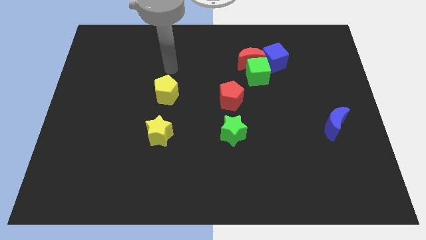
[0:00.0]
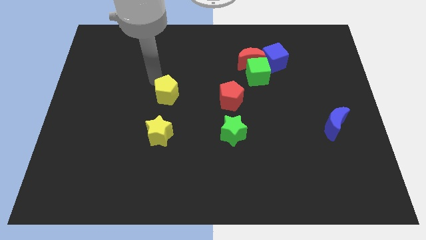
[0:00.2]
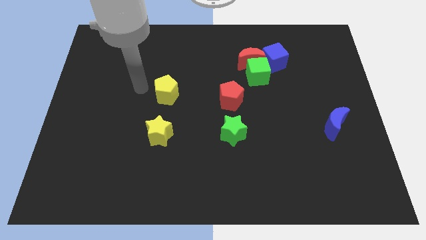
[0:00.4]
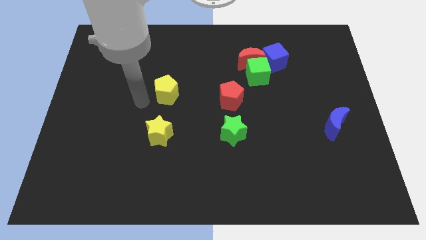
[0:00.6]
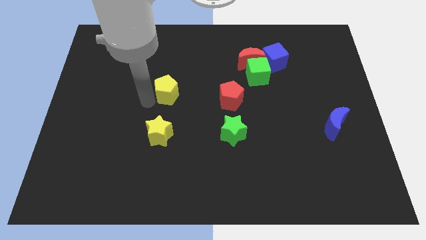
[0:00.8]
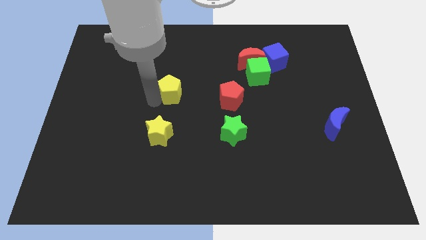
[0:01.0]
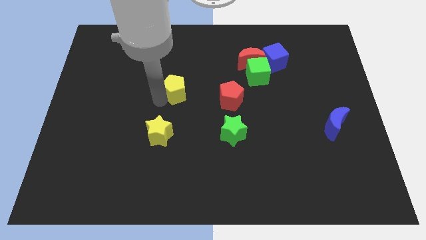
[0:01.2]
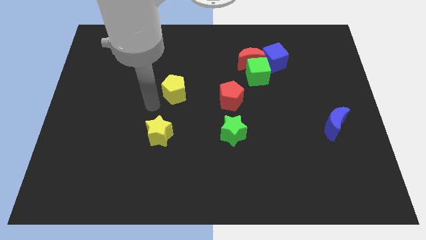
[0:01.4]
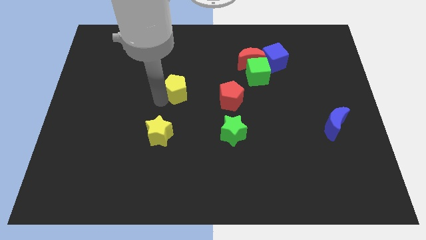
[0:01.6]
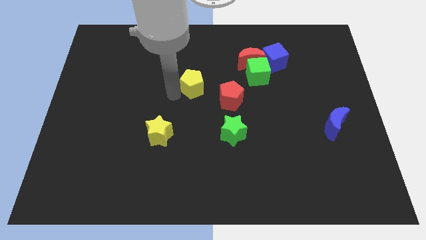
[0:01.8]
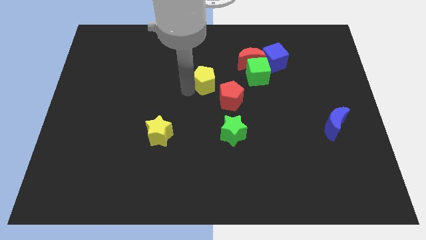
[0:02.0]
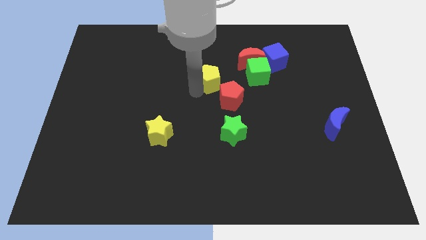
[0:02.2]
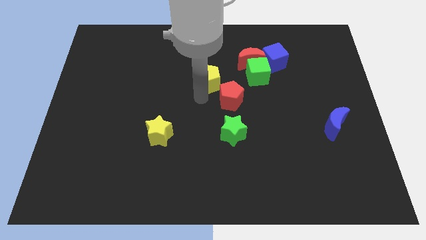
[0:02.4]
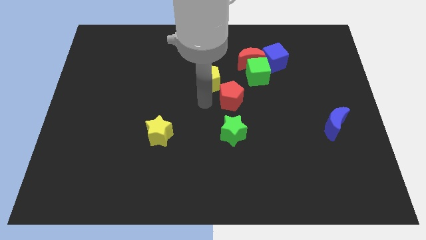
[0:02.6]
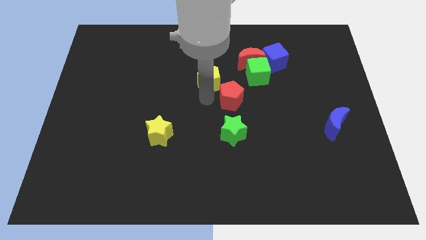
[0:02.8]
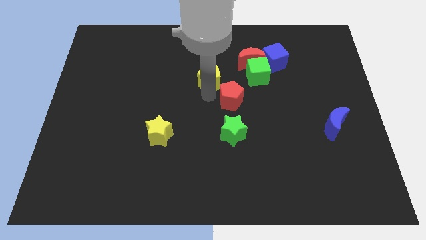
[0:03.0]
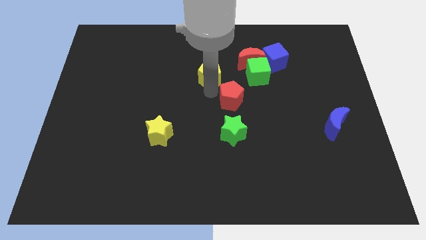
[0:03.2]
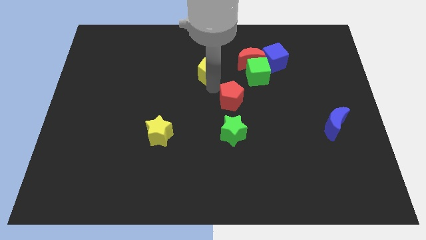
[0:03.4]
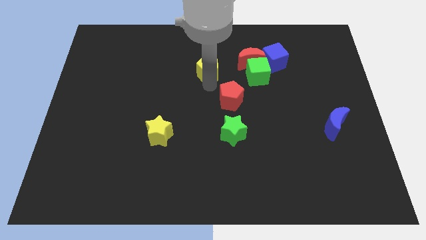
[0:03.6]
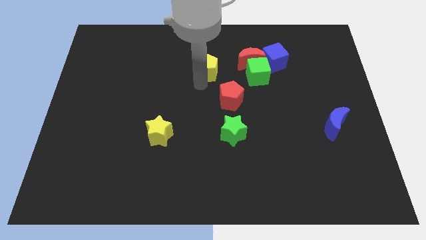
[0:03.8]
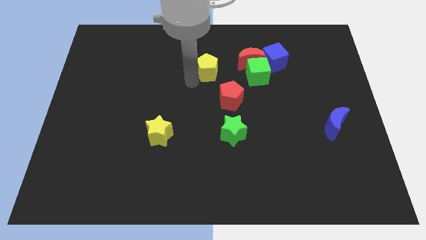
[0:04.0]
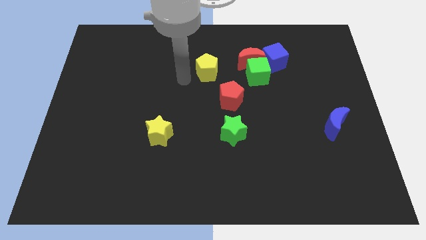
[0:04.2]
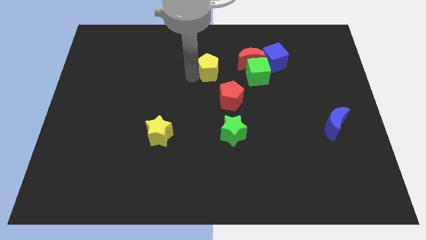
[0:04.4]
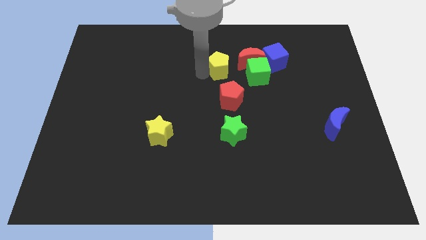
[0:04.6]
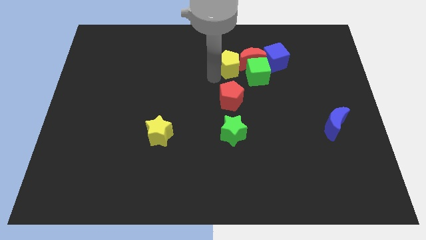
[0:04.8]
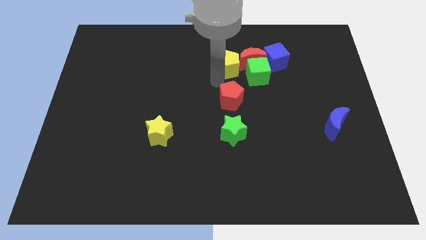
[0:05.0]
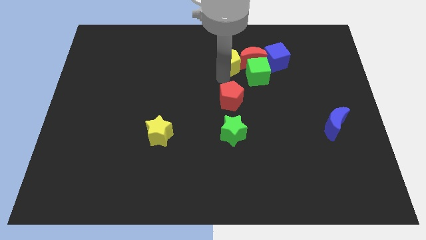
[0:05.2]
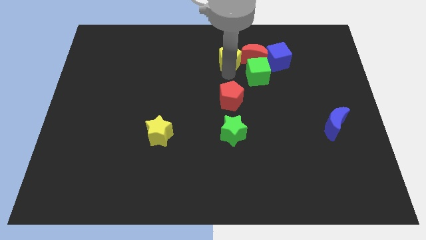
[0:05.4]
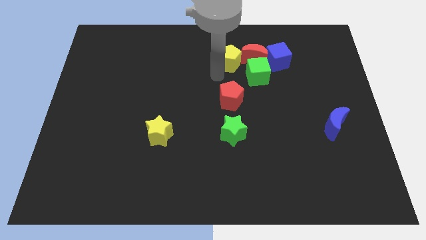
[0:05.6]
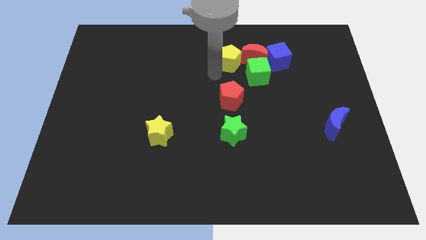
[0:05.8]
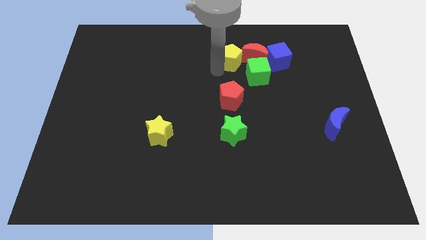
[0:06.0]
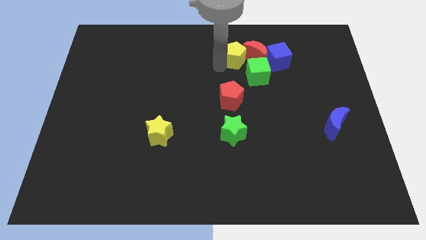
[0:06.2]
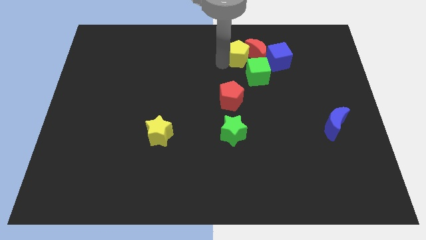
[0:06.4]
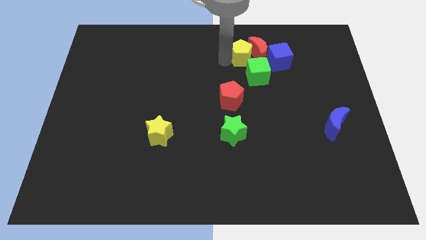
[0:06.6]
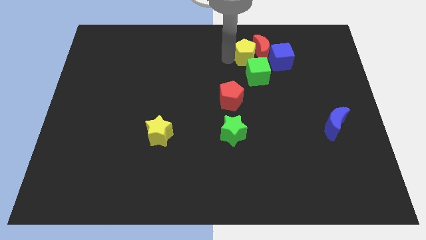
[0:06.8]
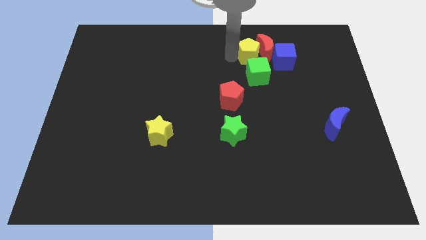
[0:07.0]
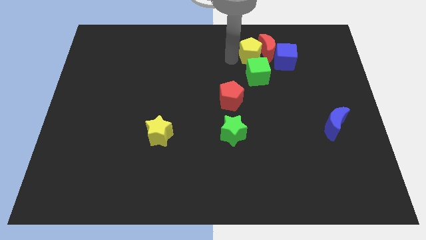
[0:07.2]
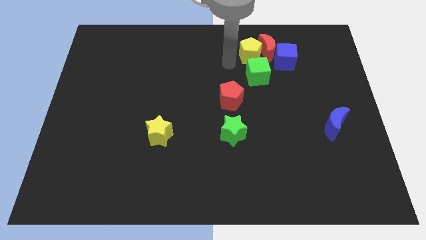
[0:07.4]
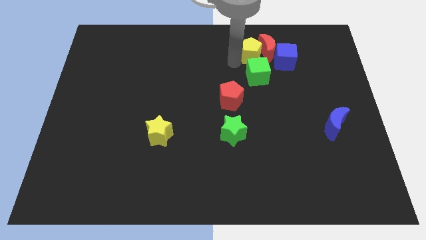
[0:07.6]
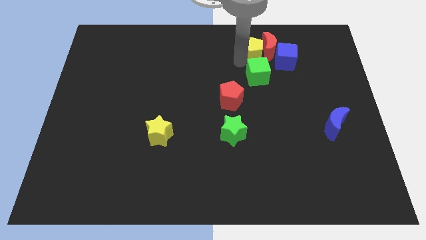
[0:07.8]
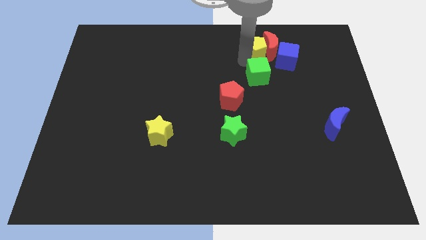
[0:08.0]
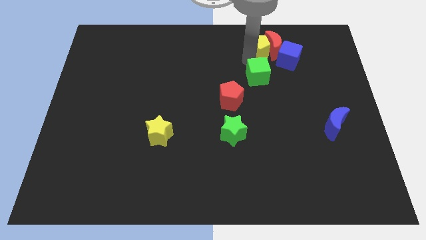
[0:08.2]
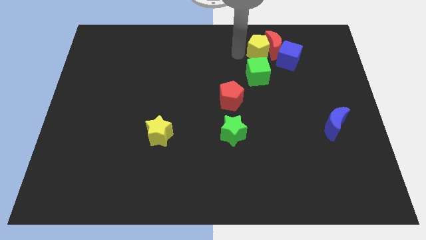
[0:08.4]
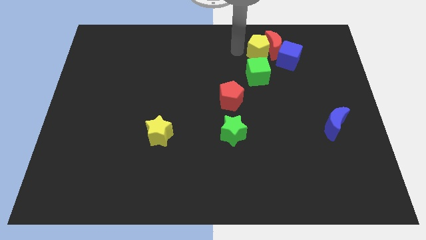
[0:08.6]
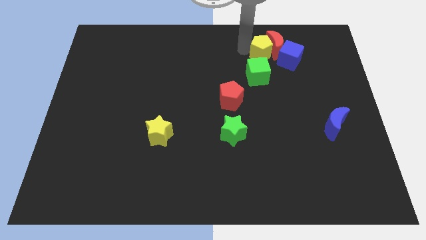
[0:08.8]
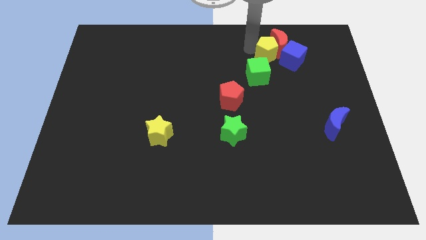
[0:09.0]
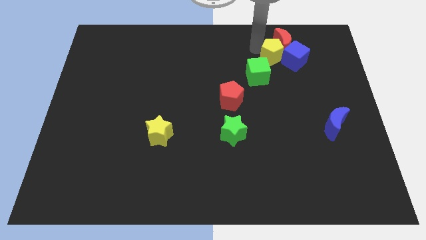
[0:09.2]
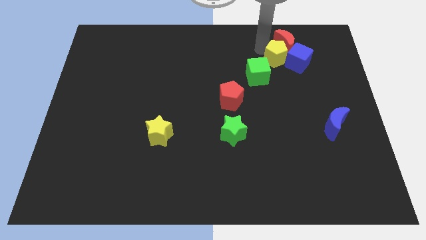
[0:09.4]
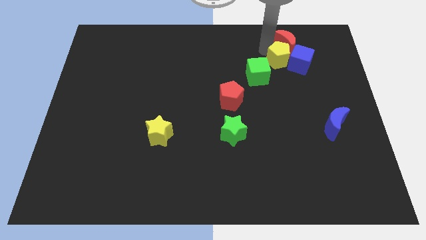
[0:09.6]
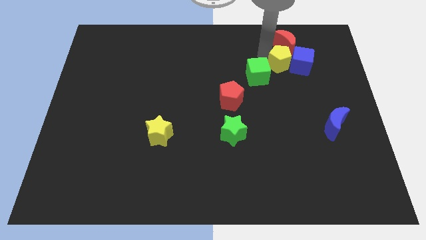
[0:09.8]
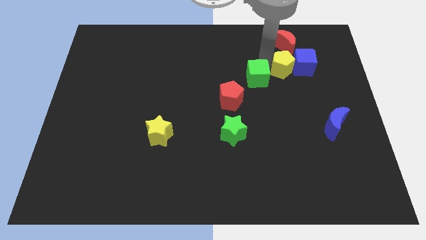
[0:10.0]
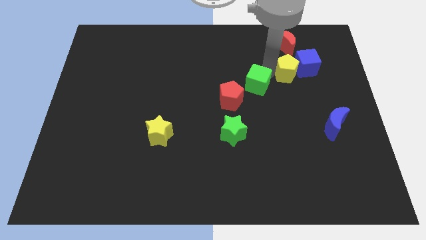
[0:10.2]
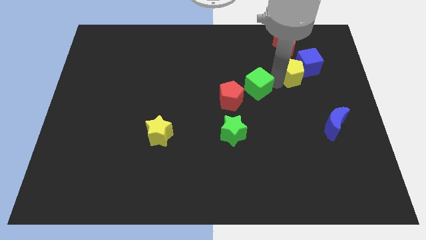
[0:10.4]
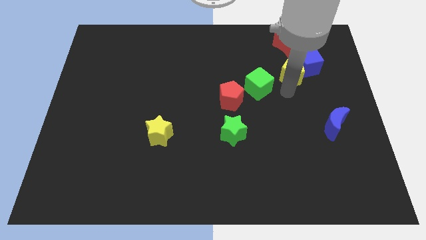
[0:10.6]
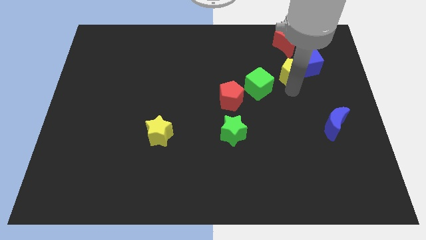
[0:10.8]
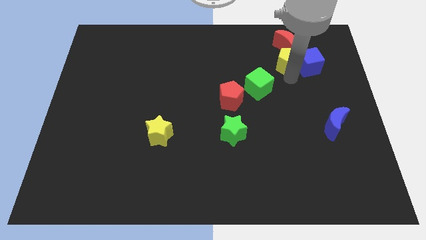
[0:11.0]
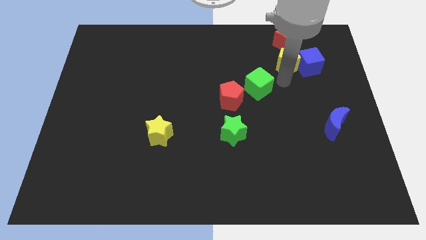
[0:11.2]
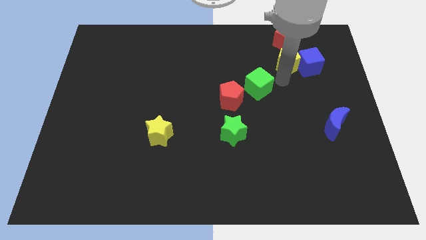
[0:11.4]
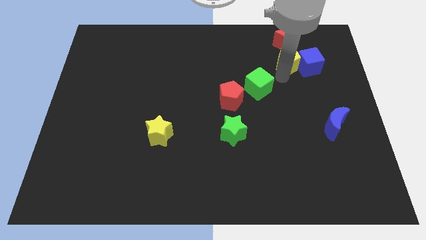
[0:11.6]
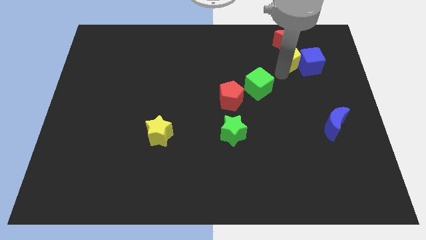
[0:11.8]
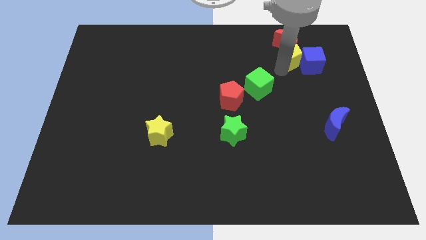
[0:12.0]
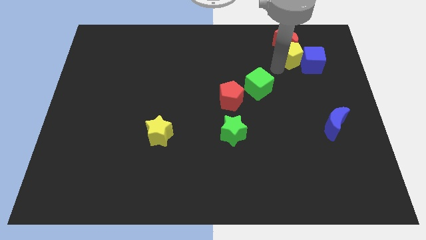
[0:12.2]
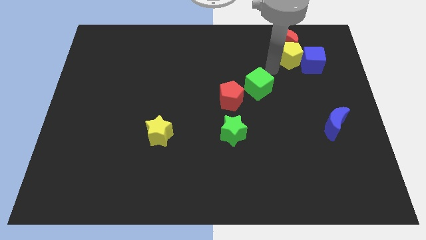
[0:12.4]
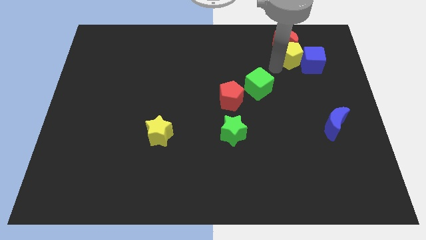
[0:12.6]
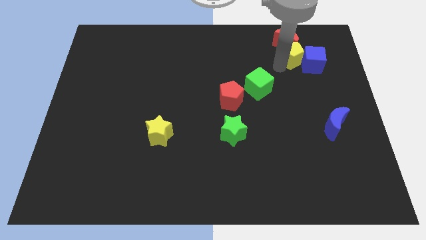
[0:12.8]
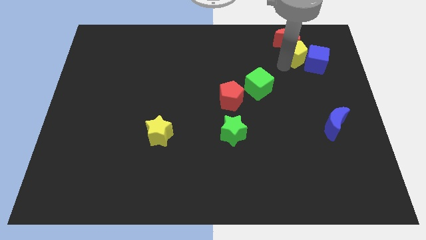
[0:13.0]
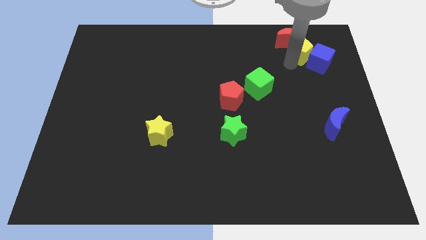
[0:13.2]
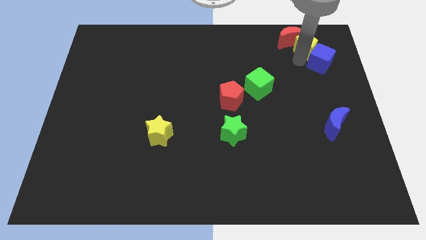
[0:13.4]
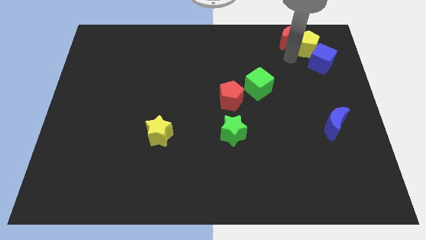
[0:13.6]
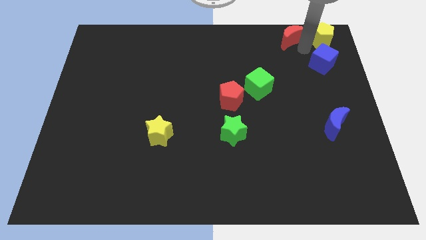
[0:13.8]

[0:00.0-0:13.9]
push the yellow pentagon to the upper right corner

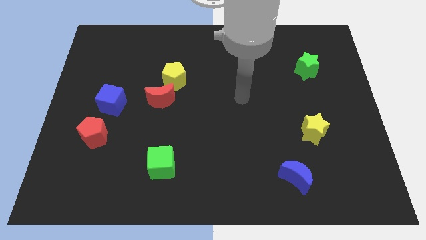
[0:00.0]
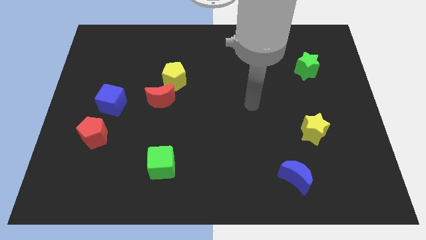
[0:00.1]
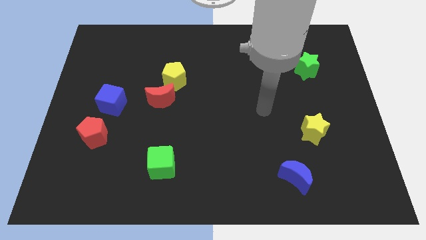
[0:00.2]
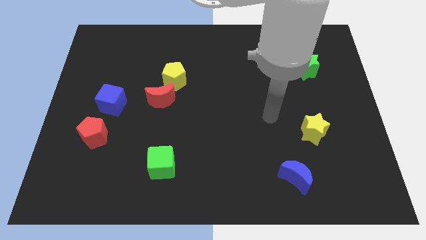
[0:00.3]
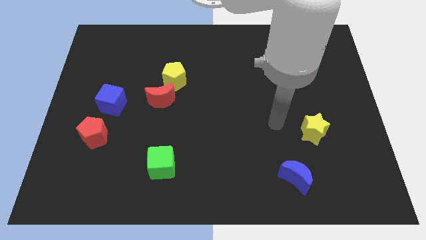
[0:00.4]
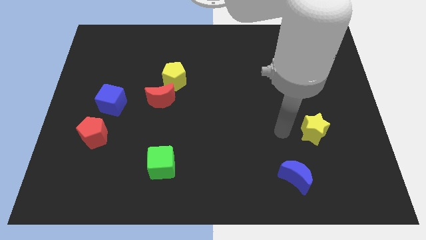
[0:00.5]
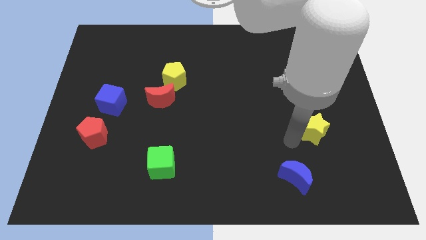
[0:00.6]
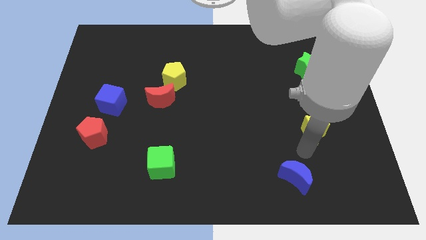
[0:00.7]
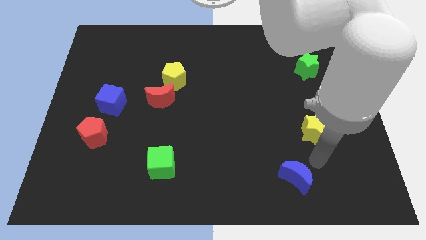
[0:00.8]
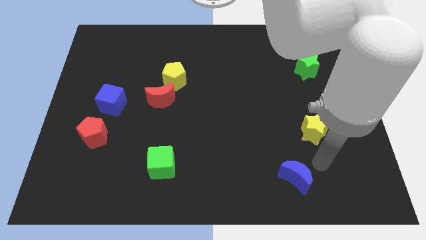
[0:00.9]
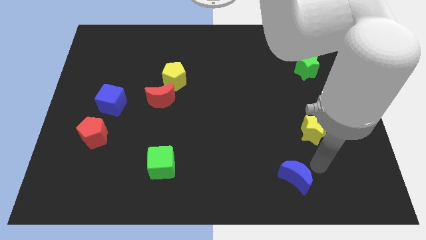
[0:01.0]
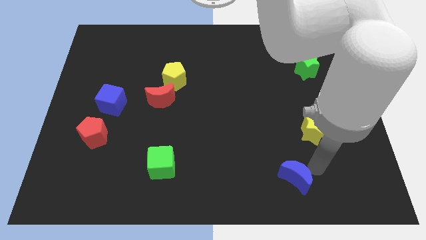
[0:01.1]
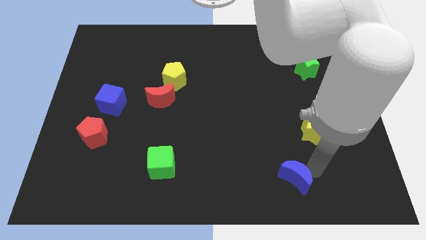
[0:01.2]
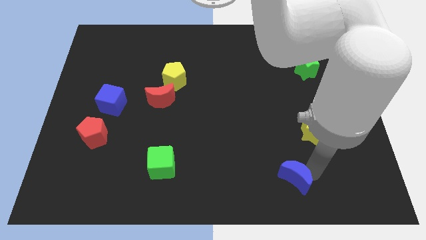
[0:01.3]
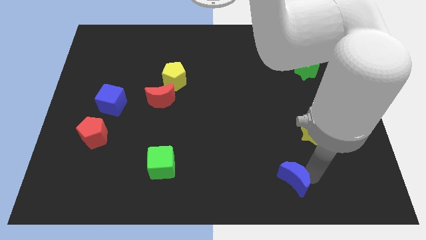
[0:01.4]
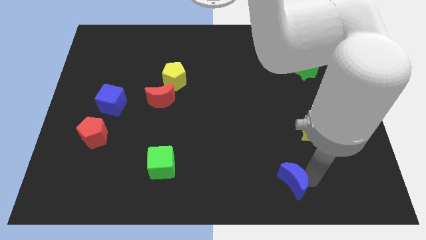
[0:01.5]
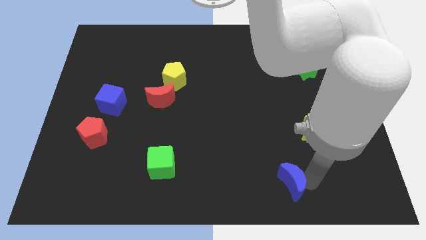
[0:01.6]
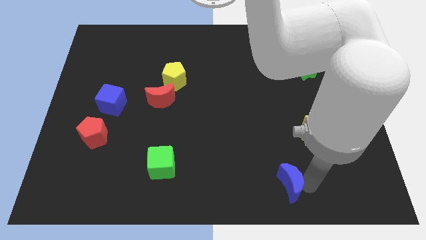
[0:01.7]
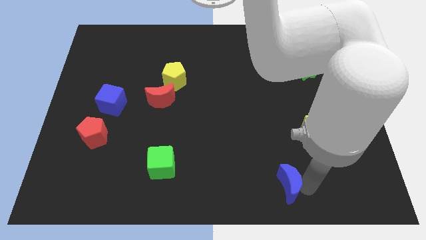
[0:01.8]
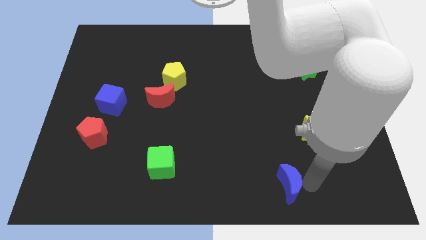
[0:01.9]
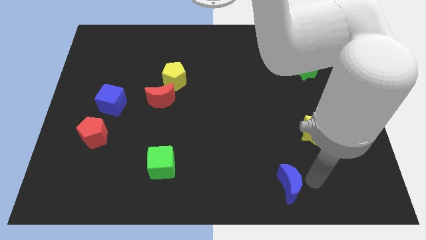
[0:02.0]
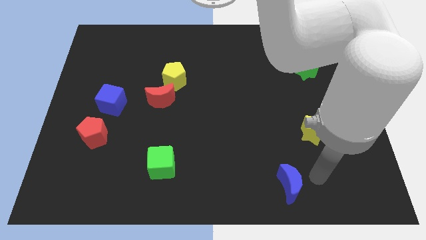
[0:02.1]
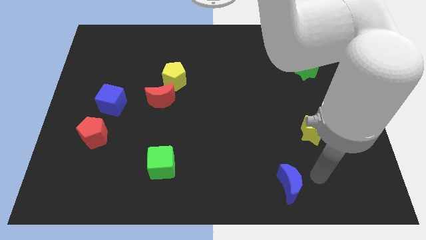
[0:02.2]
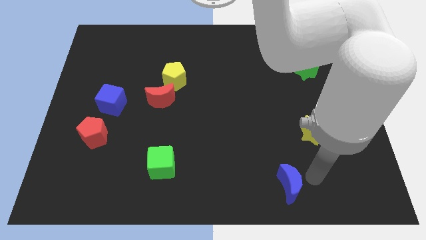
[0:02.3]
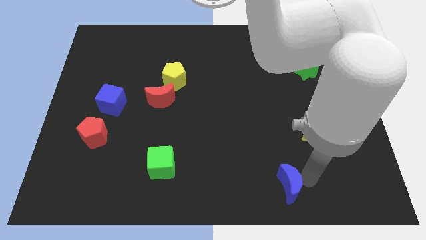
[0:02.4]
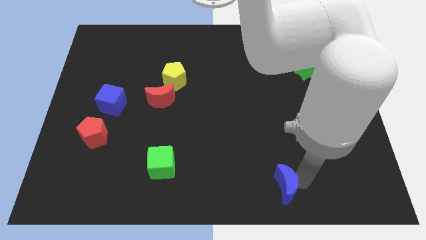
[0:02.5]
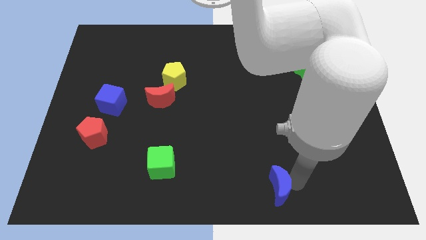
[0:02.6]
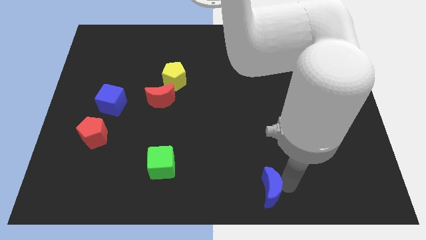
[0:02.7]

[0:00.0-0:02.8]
move the blue moon to the bottom side
